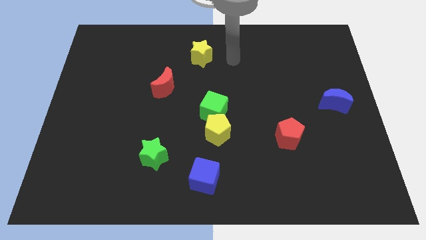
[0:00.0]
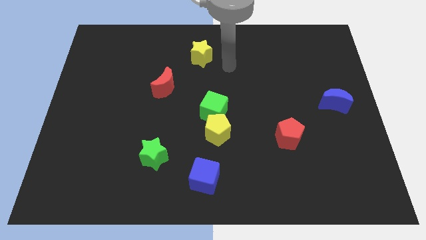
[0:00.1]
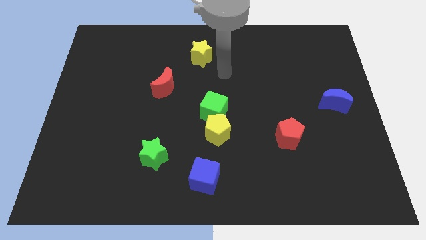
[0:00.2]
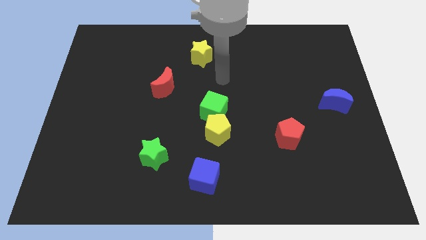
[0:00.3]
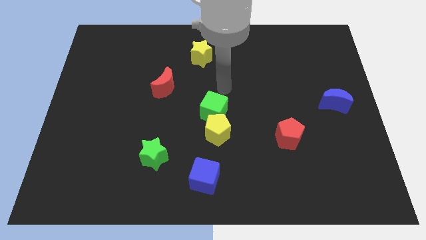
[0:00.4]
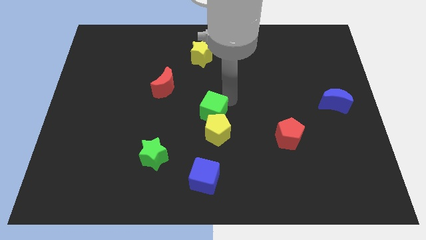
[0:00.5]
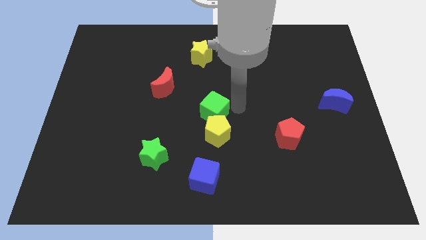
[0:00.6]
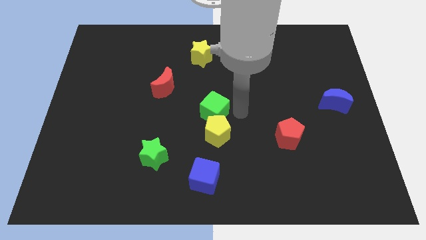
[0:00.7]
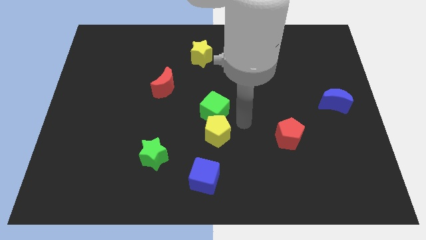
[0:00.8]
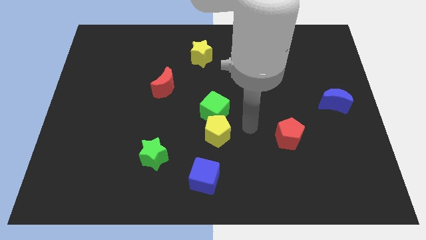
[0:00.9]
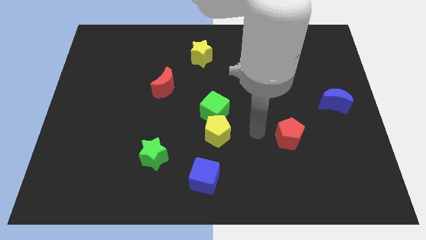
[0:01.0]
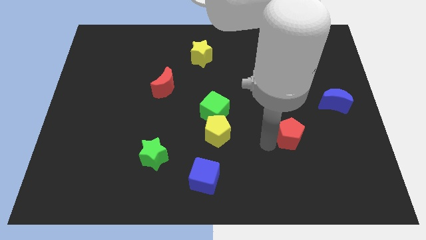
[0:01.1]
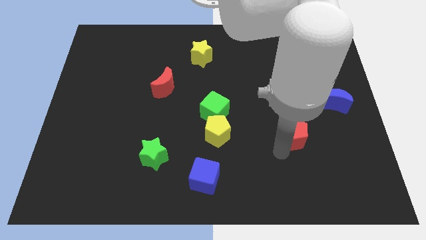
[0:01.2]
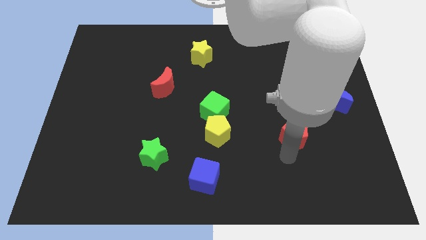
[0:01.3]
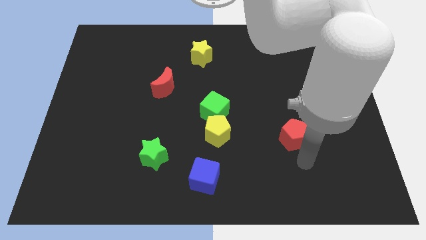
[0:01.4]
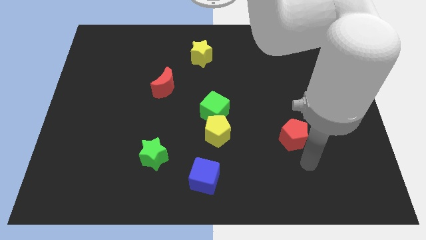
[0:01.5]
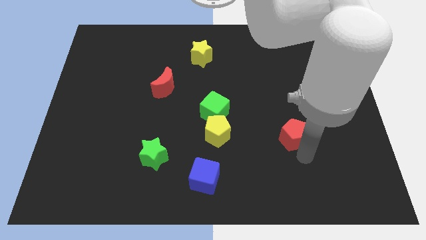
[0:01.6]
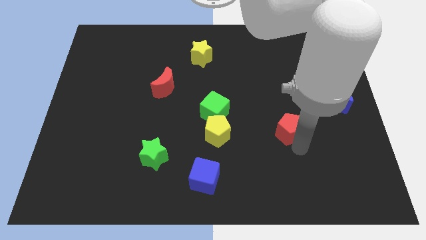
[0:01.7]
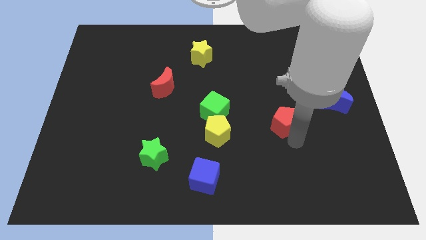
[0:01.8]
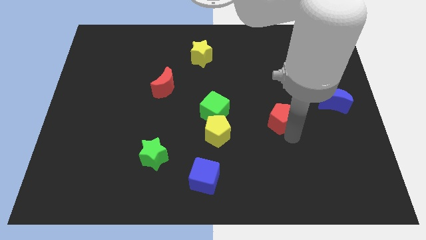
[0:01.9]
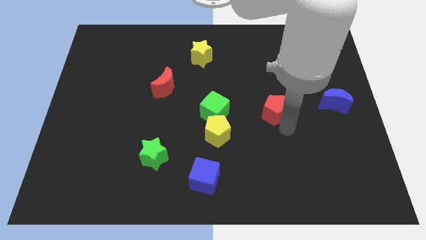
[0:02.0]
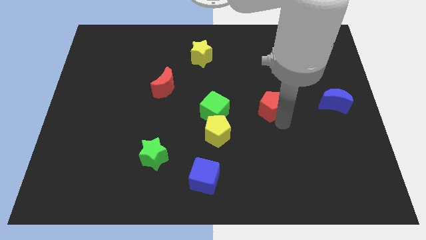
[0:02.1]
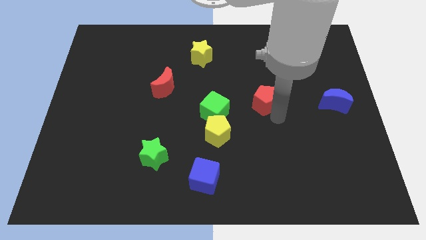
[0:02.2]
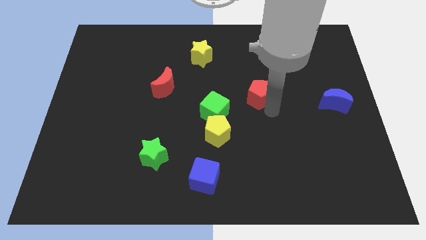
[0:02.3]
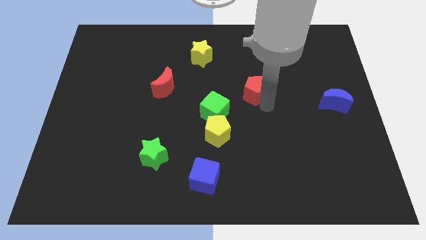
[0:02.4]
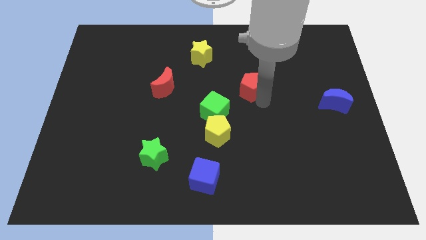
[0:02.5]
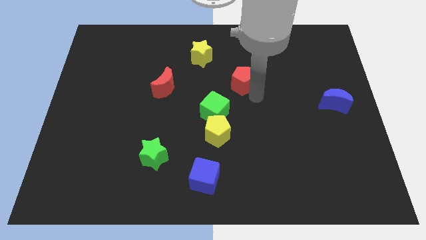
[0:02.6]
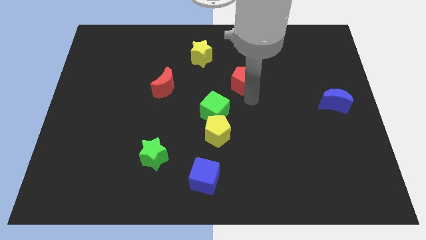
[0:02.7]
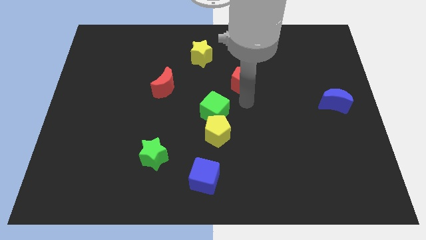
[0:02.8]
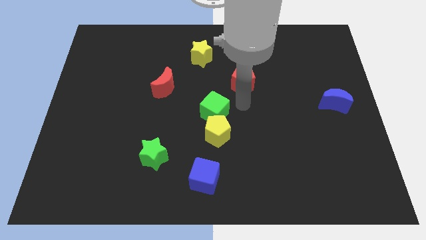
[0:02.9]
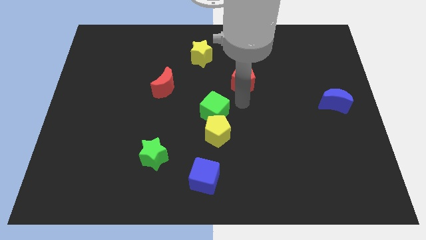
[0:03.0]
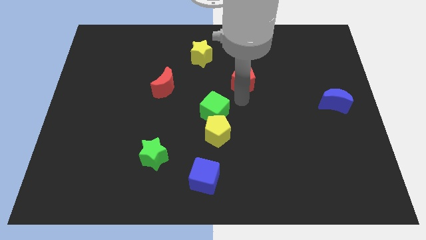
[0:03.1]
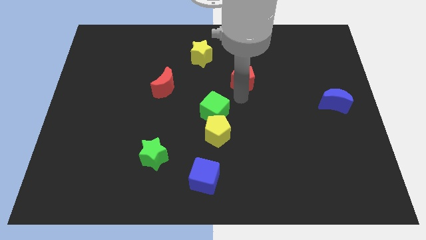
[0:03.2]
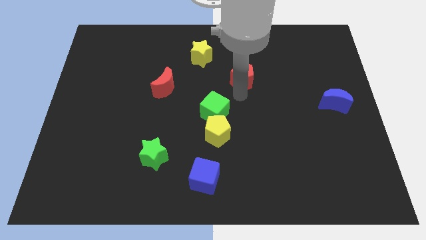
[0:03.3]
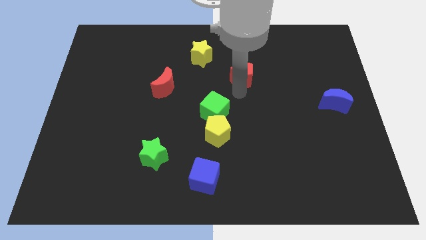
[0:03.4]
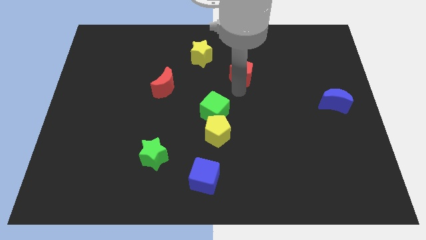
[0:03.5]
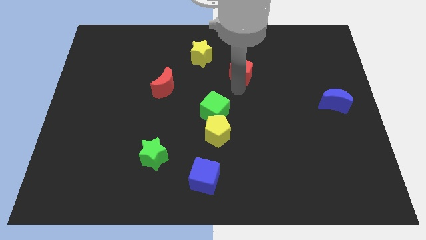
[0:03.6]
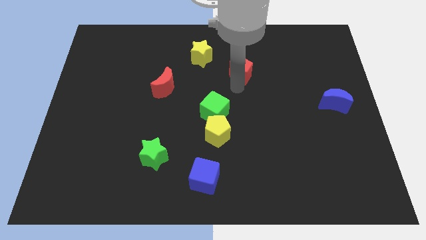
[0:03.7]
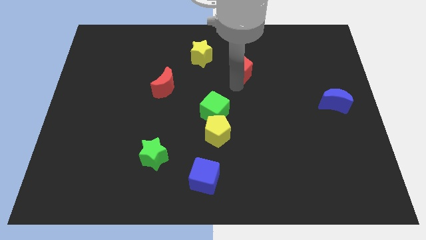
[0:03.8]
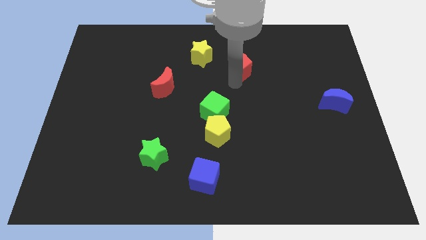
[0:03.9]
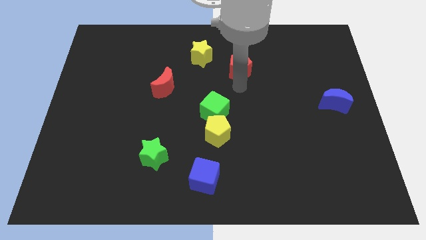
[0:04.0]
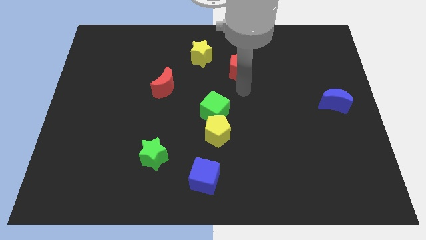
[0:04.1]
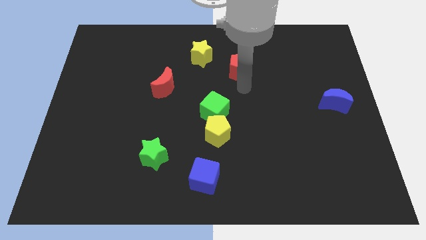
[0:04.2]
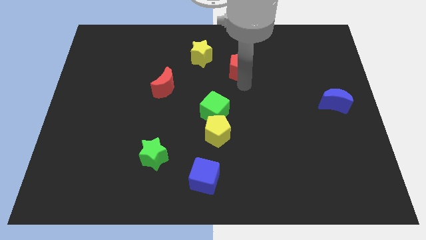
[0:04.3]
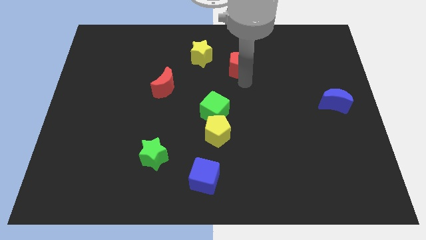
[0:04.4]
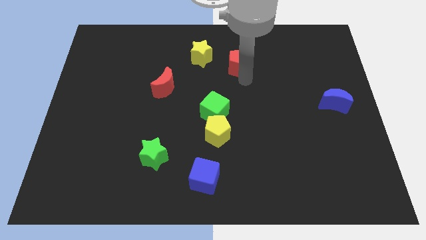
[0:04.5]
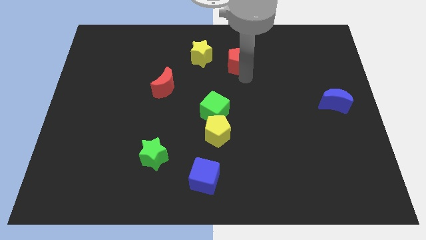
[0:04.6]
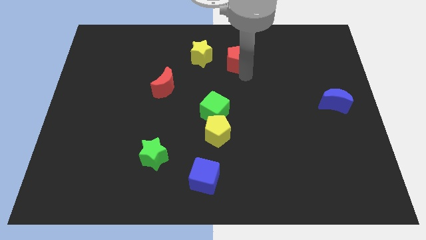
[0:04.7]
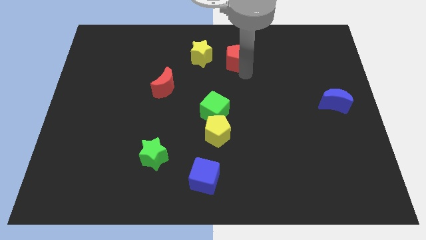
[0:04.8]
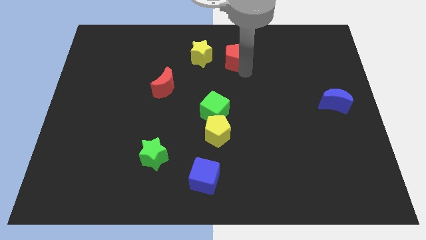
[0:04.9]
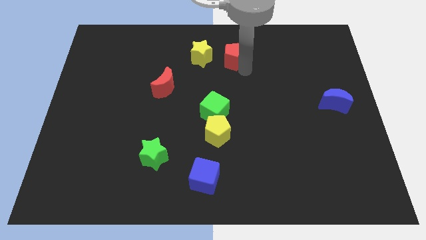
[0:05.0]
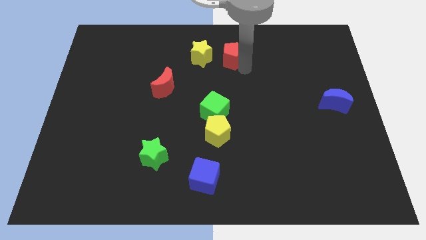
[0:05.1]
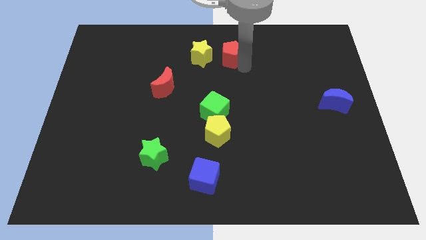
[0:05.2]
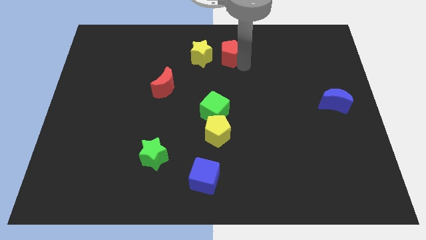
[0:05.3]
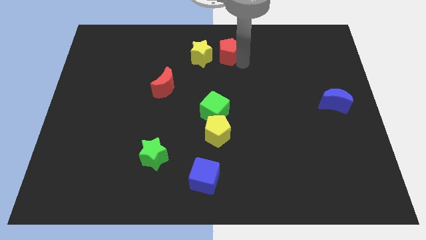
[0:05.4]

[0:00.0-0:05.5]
put the red pentagon to the top side

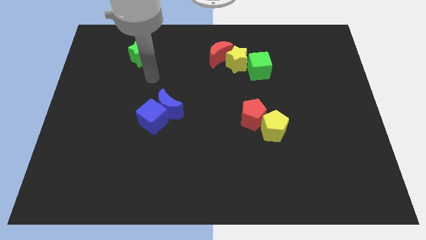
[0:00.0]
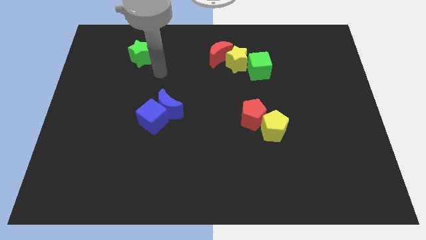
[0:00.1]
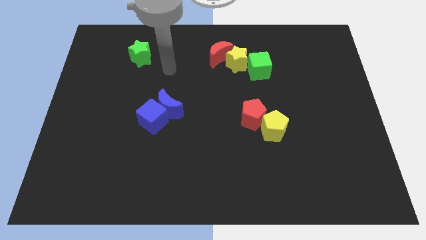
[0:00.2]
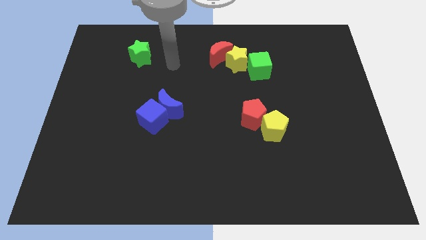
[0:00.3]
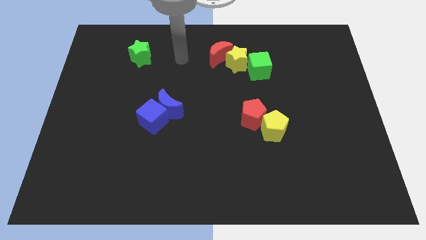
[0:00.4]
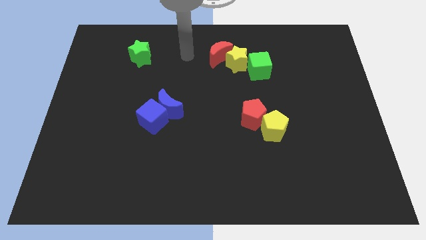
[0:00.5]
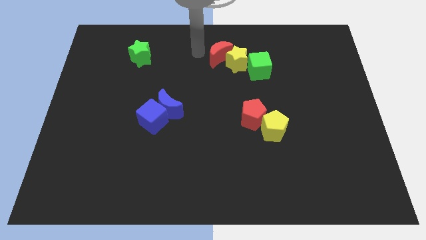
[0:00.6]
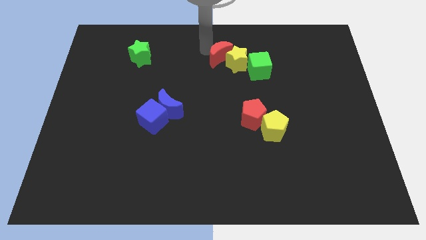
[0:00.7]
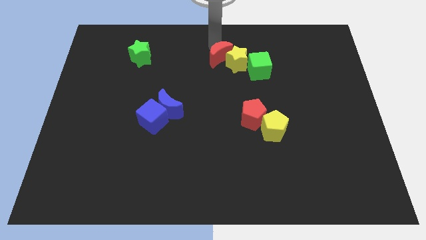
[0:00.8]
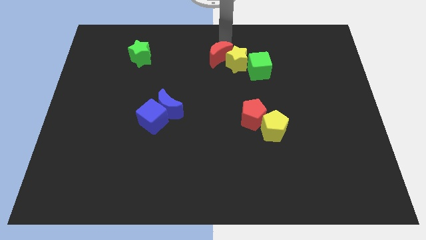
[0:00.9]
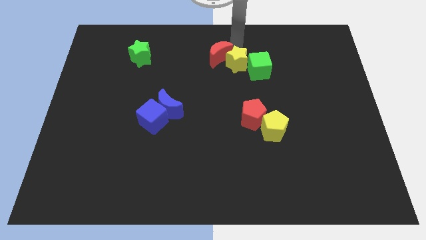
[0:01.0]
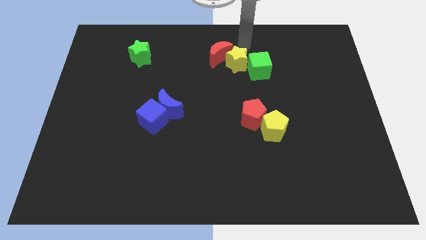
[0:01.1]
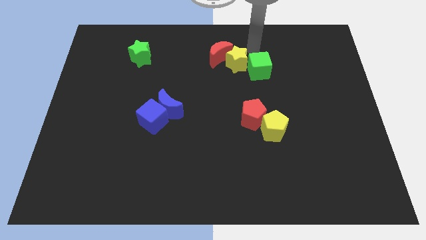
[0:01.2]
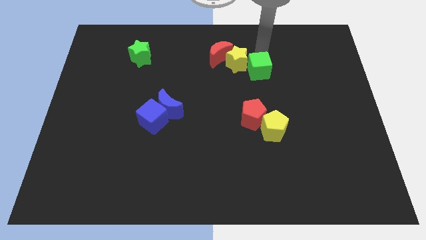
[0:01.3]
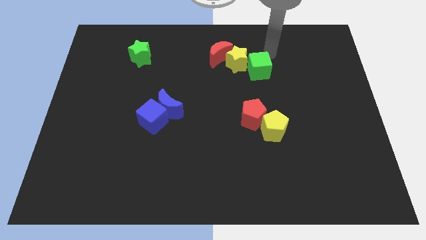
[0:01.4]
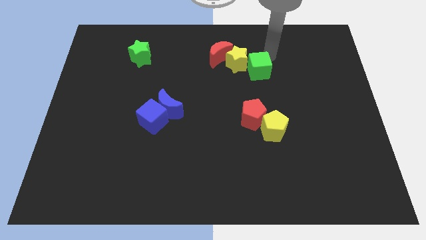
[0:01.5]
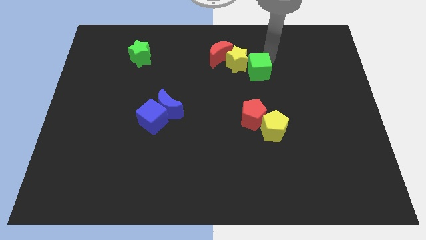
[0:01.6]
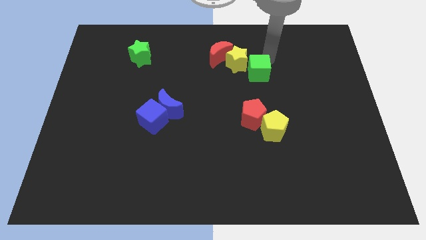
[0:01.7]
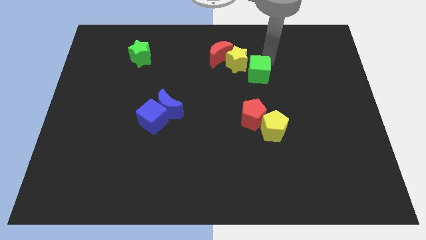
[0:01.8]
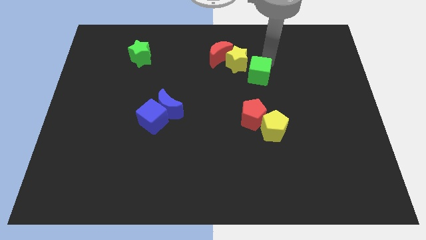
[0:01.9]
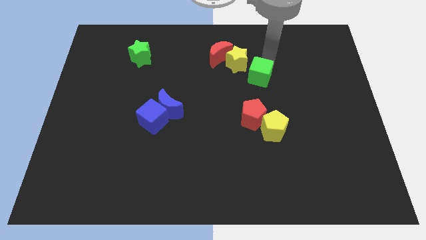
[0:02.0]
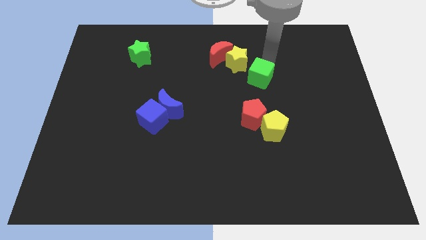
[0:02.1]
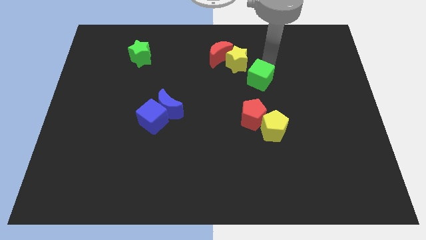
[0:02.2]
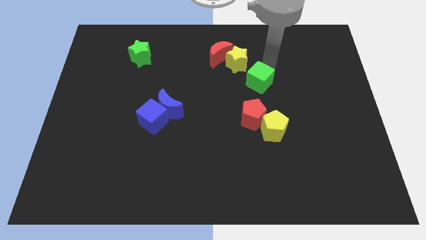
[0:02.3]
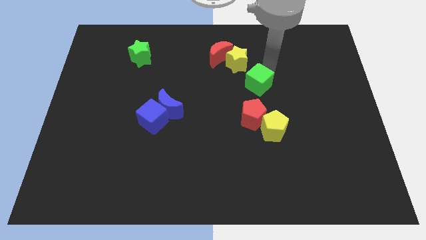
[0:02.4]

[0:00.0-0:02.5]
push the green cube to the center
